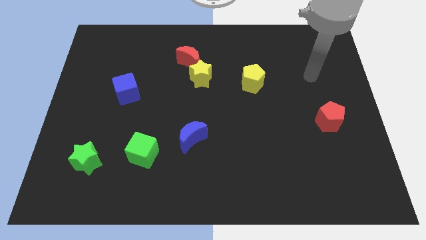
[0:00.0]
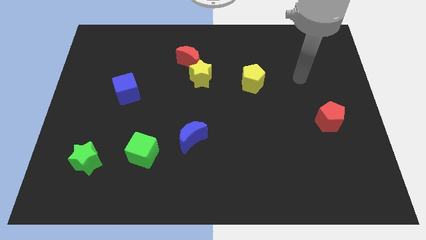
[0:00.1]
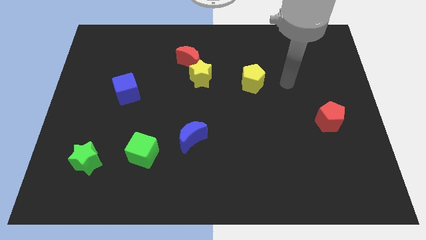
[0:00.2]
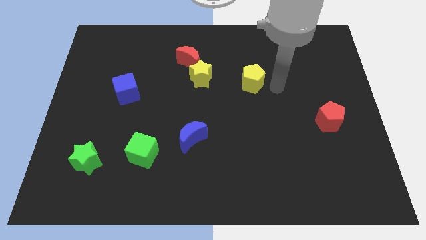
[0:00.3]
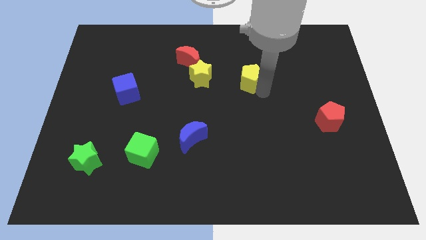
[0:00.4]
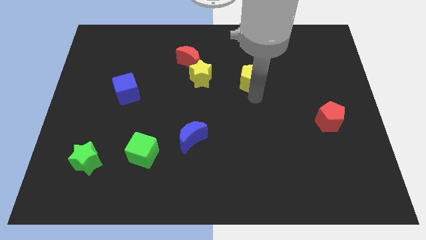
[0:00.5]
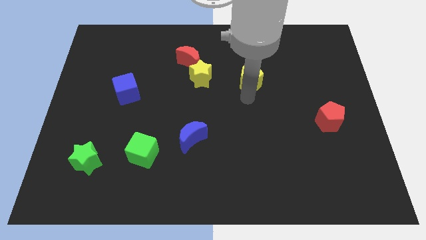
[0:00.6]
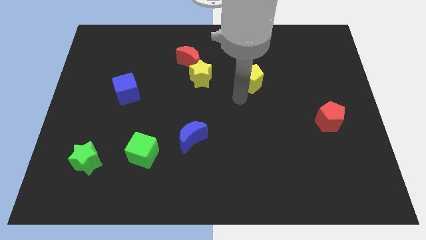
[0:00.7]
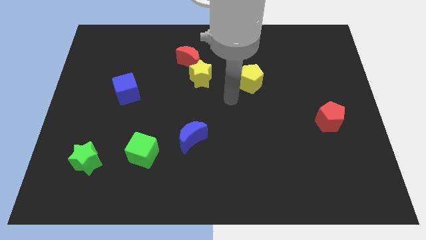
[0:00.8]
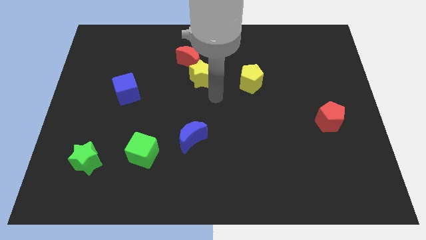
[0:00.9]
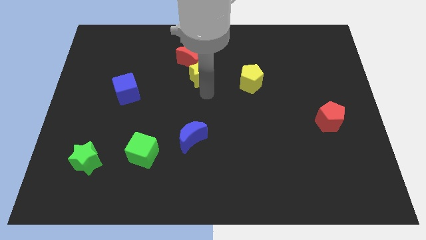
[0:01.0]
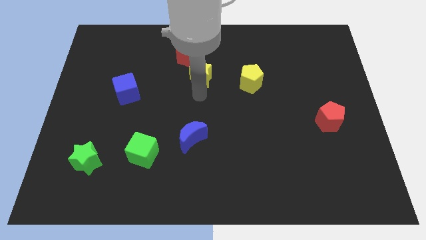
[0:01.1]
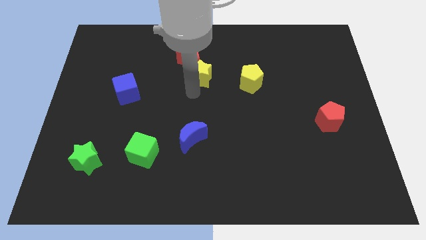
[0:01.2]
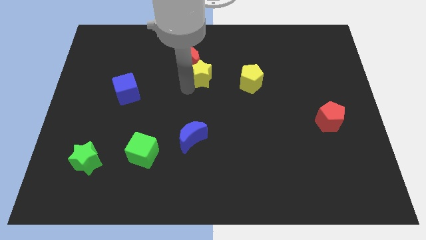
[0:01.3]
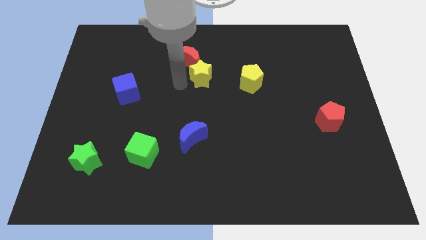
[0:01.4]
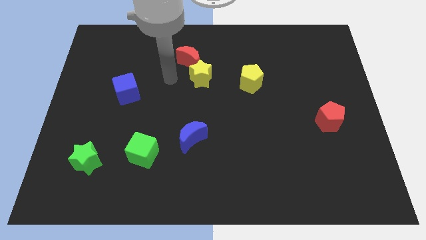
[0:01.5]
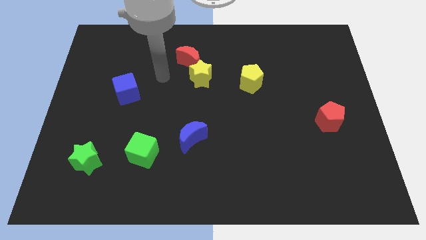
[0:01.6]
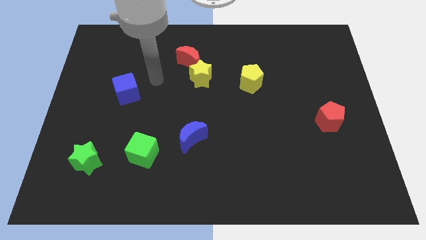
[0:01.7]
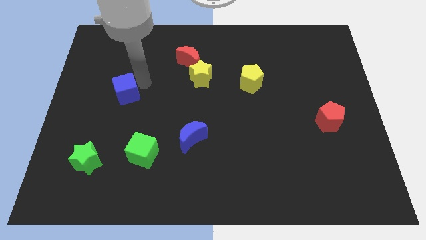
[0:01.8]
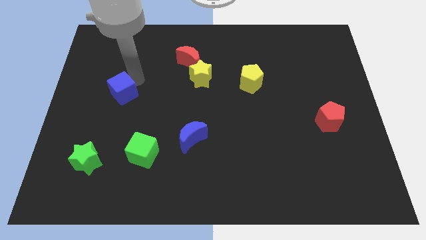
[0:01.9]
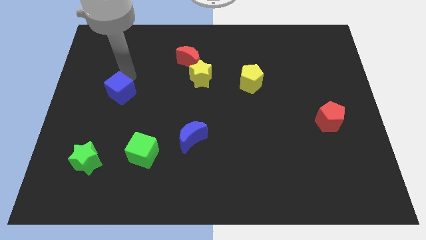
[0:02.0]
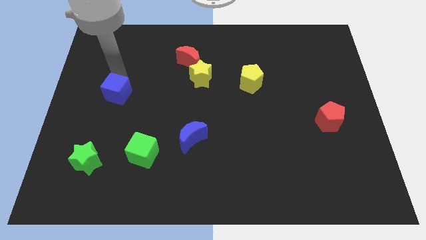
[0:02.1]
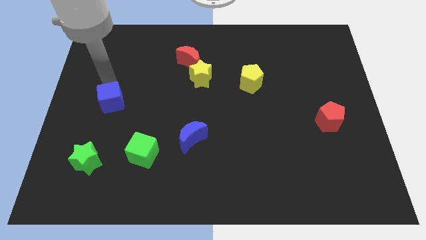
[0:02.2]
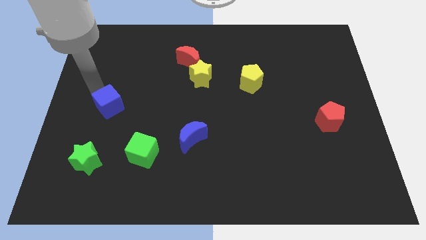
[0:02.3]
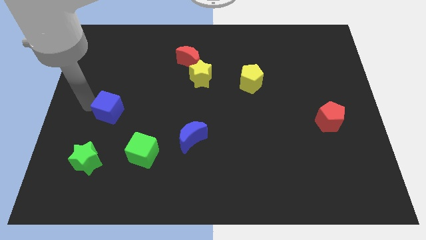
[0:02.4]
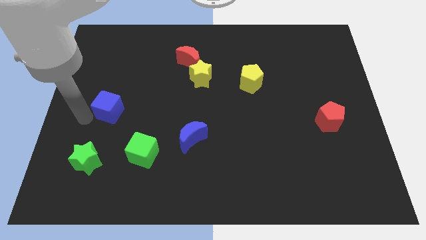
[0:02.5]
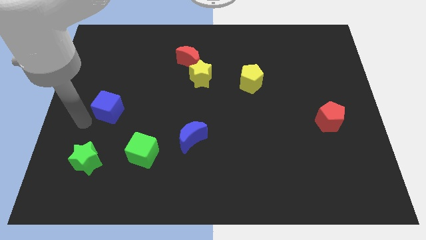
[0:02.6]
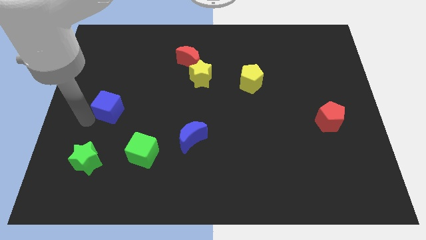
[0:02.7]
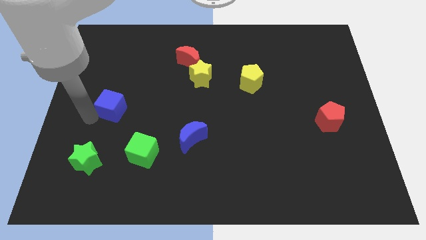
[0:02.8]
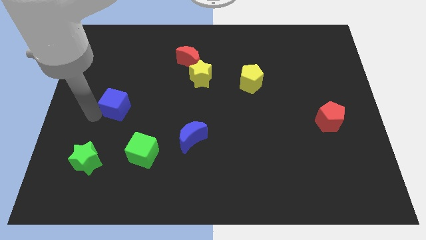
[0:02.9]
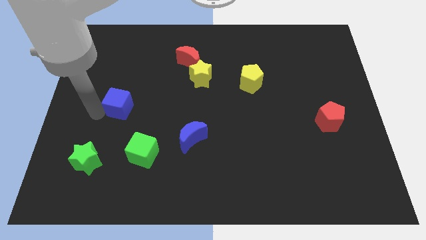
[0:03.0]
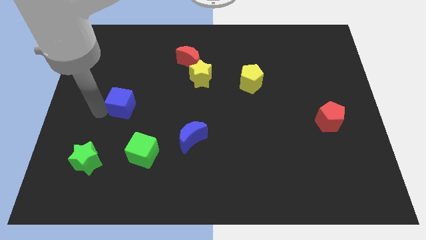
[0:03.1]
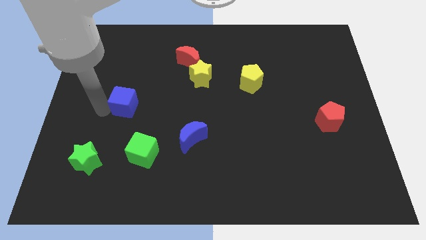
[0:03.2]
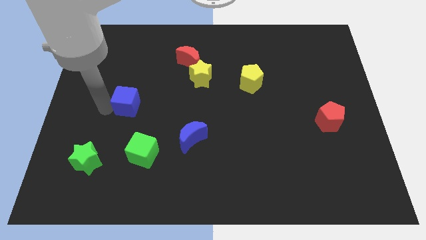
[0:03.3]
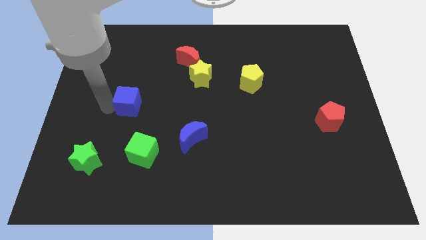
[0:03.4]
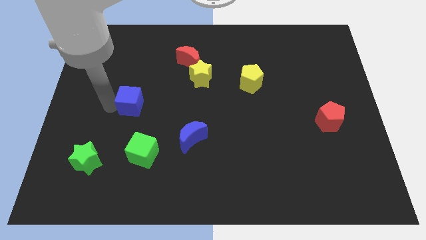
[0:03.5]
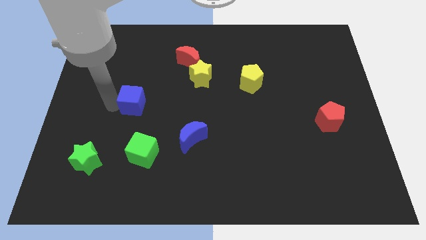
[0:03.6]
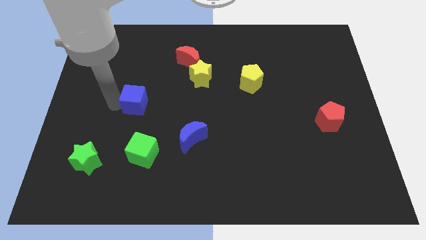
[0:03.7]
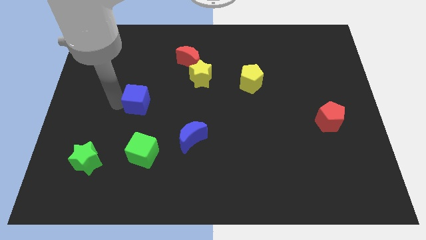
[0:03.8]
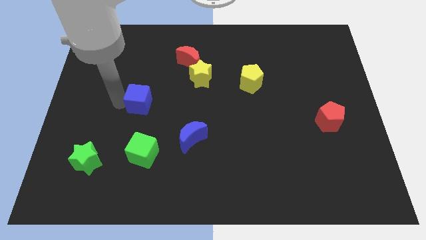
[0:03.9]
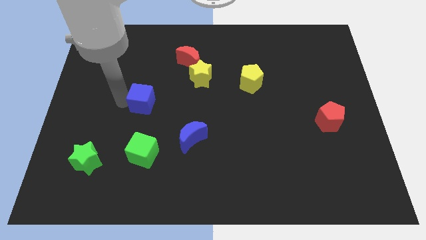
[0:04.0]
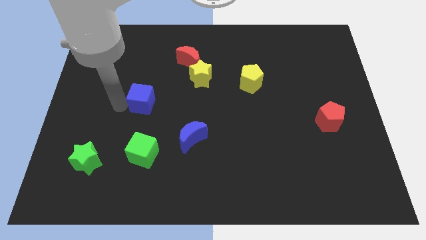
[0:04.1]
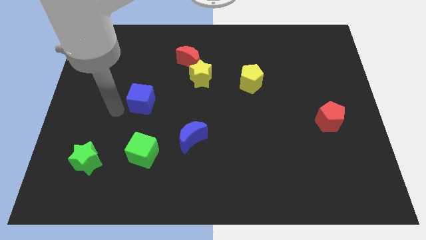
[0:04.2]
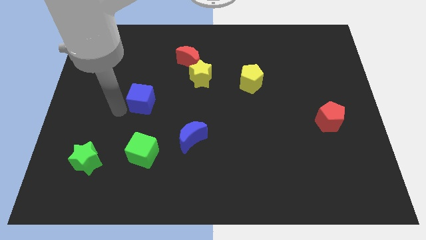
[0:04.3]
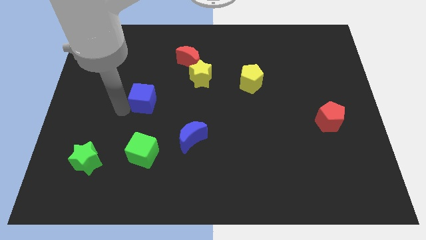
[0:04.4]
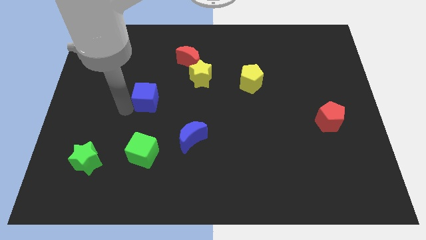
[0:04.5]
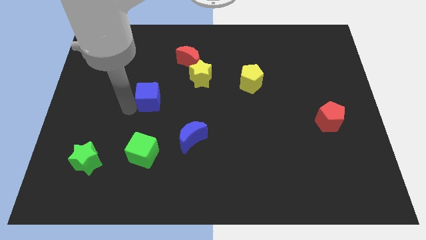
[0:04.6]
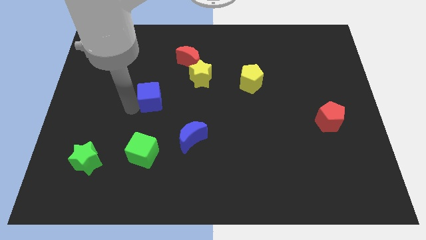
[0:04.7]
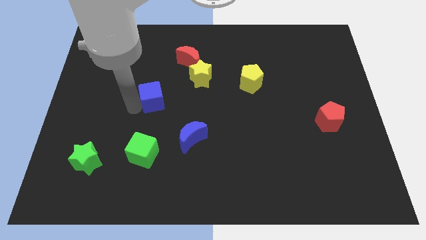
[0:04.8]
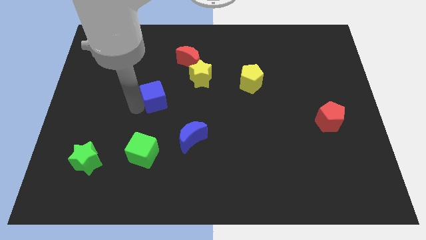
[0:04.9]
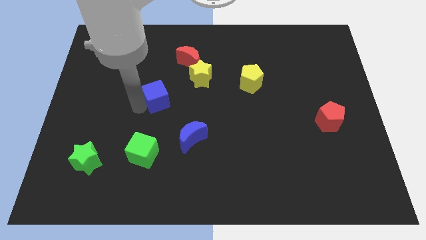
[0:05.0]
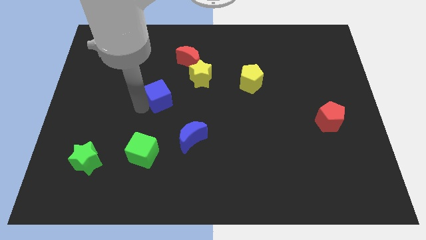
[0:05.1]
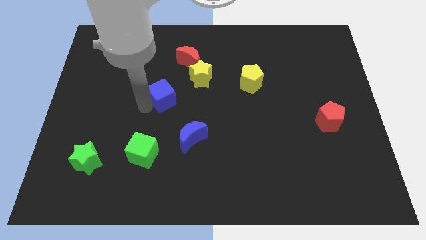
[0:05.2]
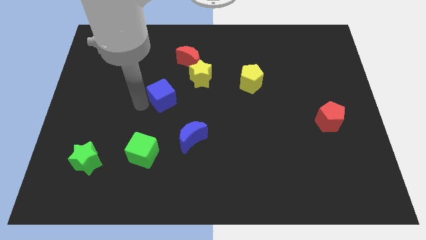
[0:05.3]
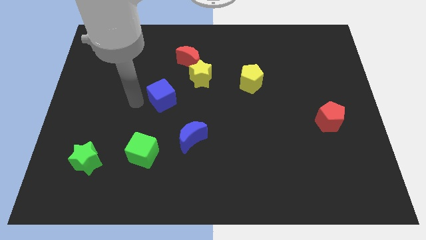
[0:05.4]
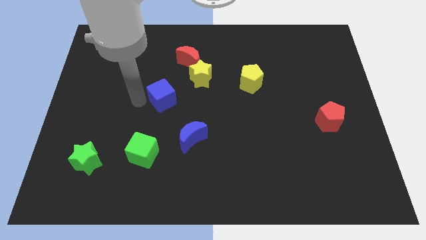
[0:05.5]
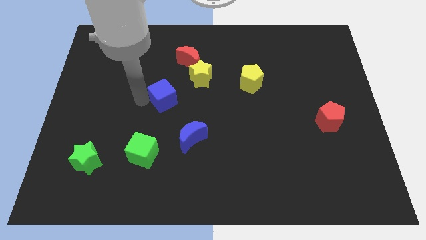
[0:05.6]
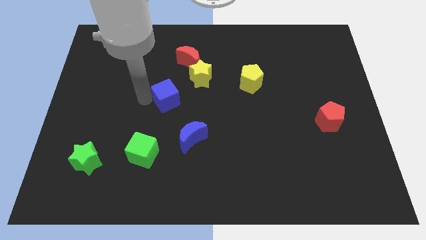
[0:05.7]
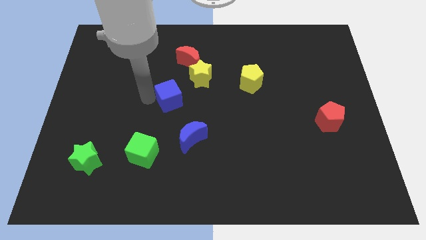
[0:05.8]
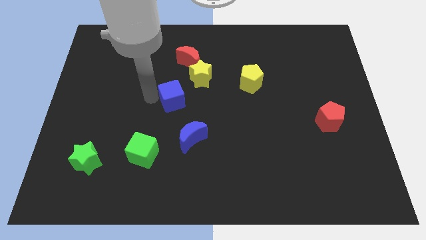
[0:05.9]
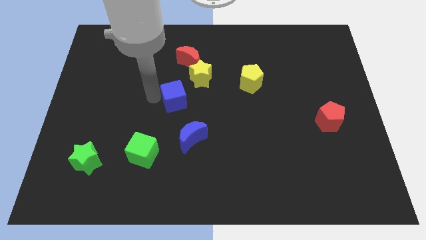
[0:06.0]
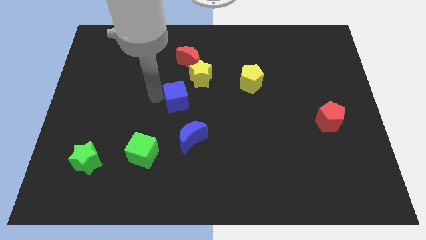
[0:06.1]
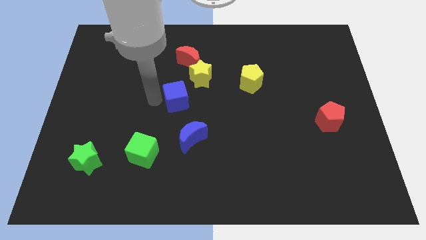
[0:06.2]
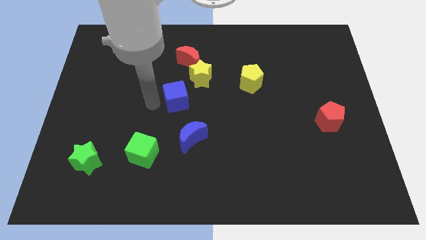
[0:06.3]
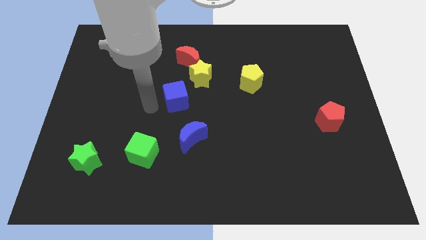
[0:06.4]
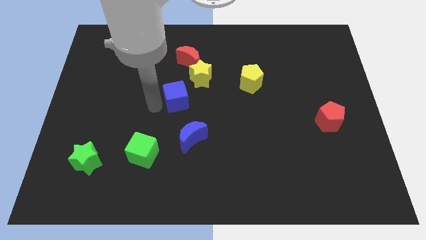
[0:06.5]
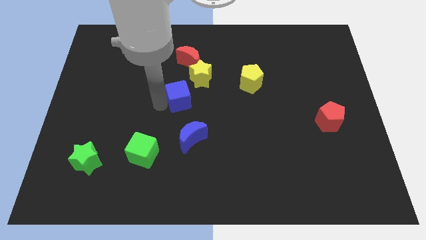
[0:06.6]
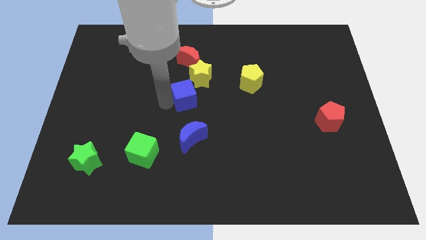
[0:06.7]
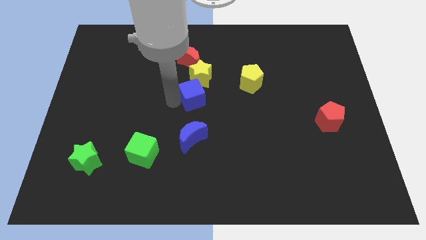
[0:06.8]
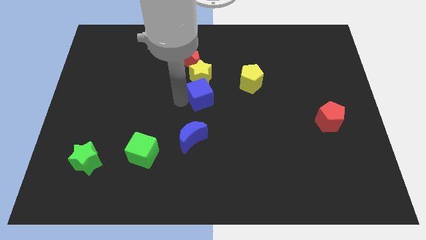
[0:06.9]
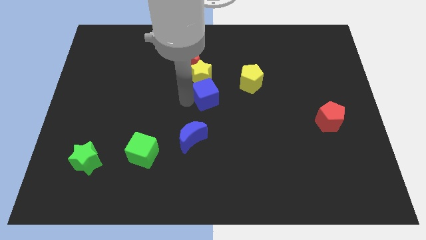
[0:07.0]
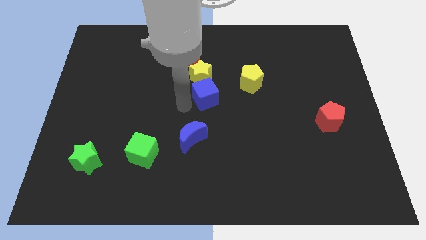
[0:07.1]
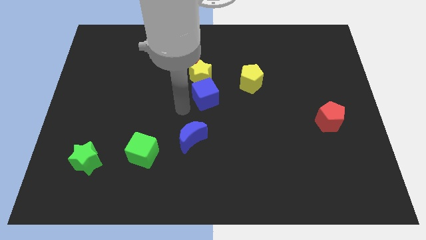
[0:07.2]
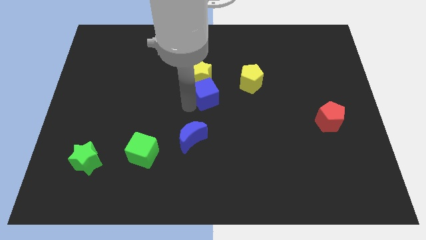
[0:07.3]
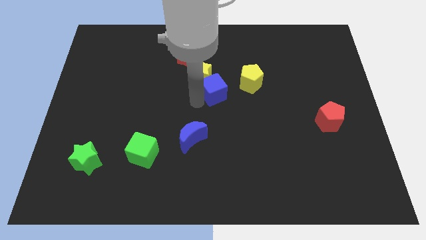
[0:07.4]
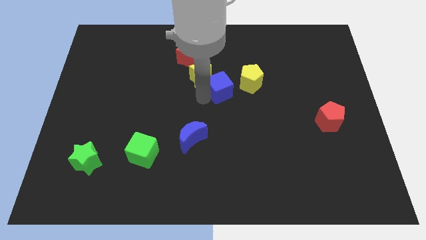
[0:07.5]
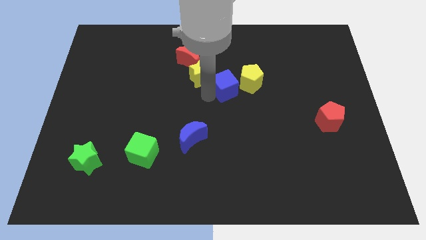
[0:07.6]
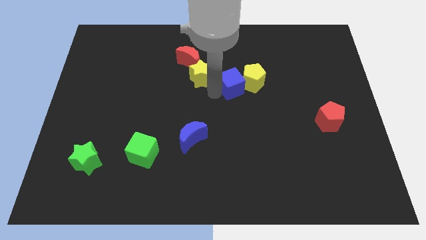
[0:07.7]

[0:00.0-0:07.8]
slide the blue cube towards the yellow pentagon
